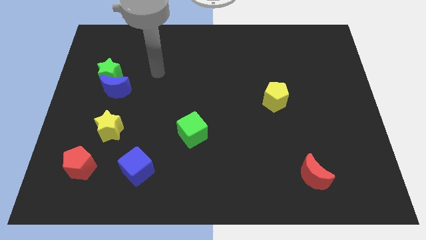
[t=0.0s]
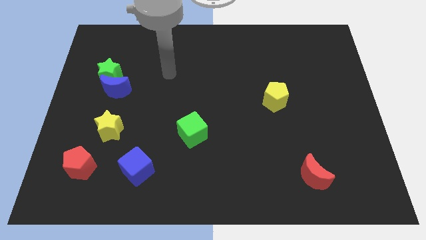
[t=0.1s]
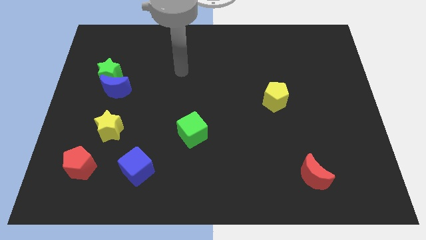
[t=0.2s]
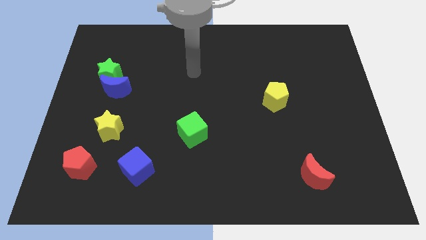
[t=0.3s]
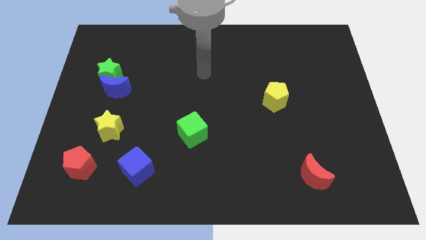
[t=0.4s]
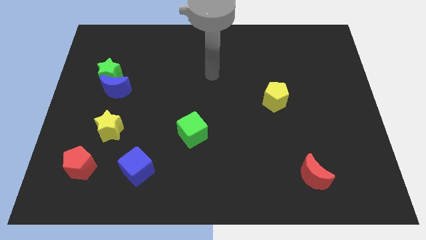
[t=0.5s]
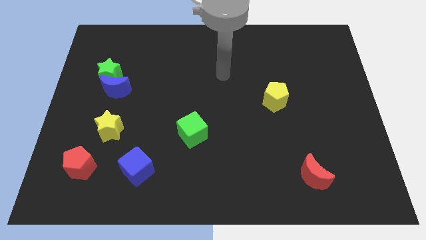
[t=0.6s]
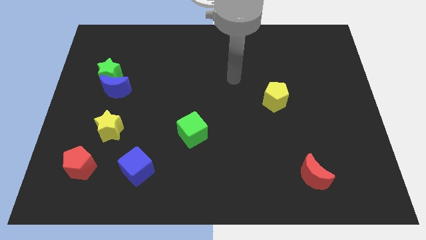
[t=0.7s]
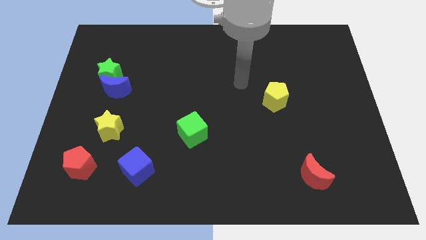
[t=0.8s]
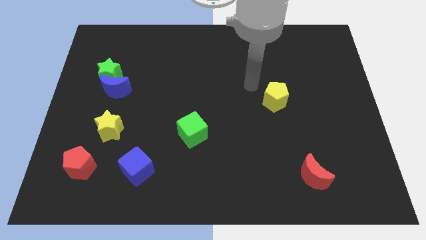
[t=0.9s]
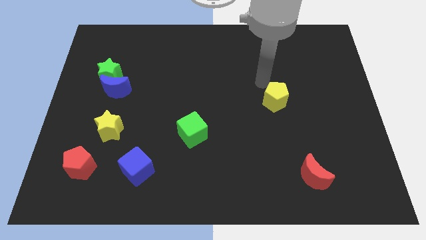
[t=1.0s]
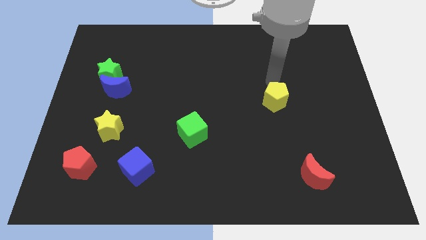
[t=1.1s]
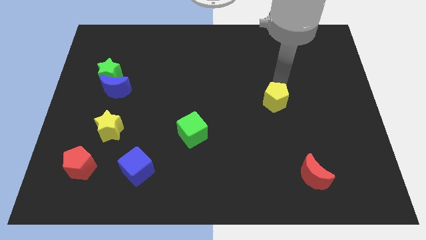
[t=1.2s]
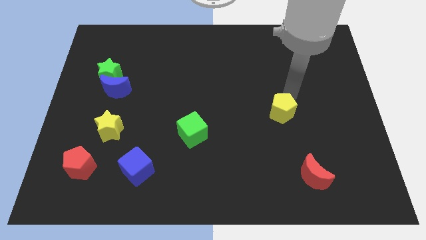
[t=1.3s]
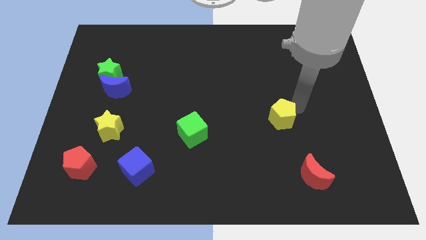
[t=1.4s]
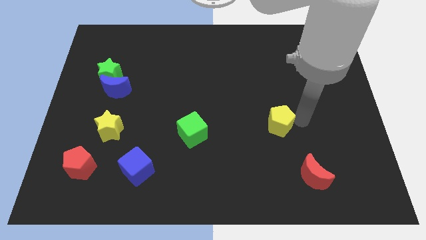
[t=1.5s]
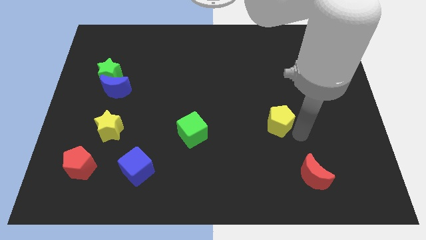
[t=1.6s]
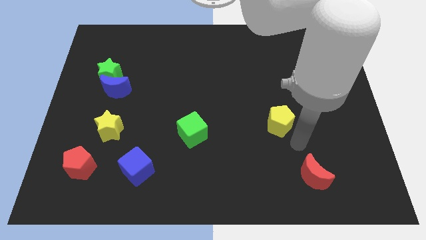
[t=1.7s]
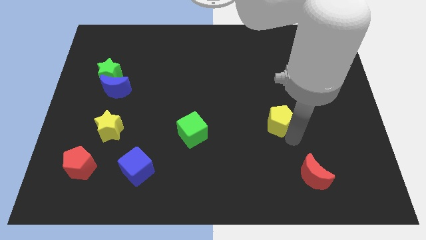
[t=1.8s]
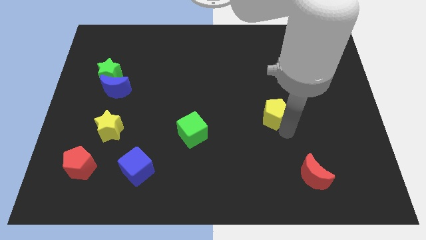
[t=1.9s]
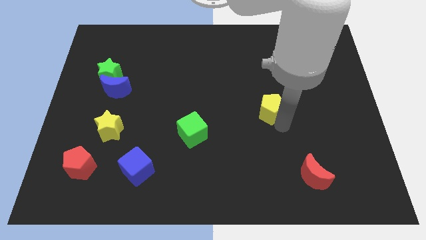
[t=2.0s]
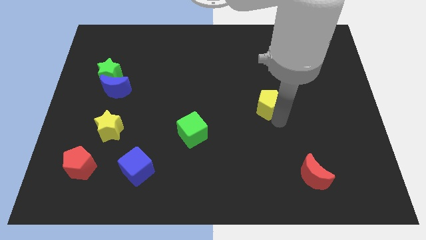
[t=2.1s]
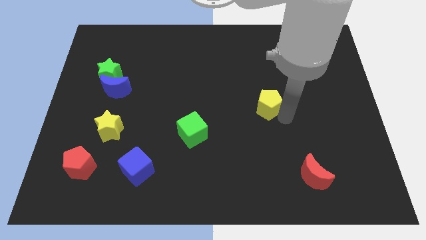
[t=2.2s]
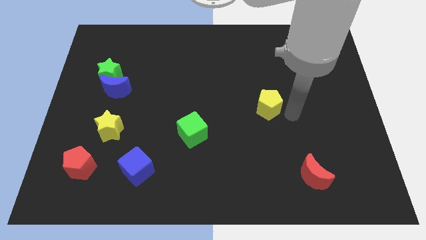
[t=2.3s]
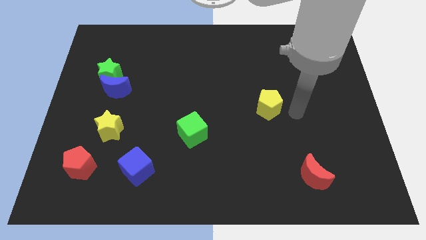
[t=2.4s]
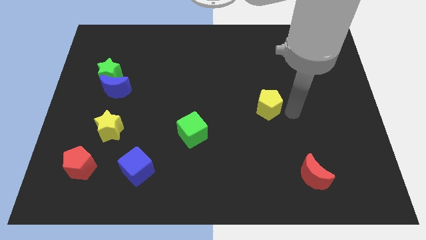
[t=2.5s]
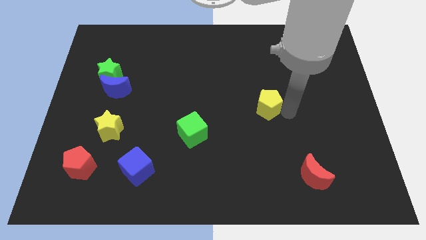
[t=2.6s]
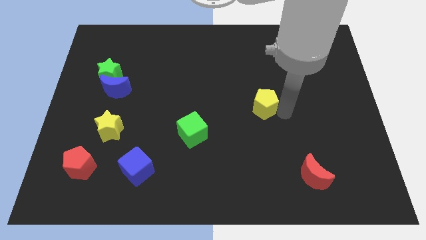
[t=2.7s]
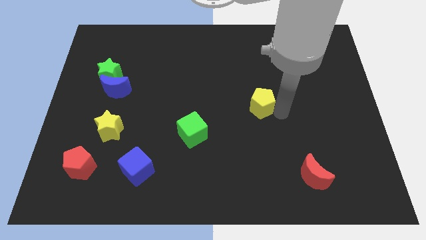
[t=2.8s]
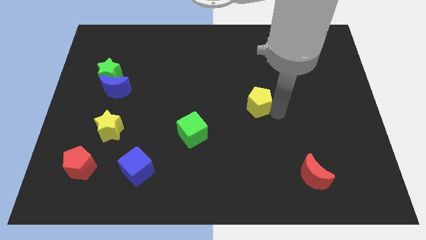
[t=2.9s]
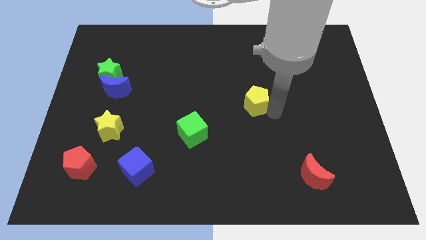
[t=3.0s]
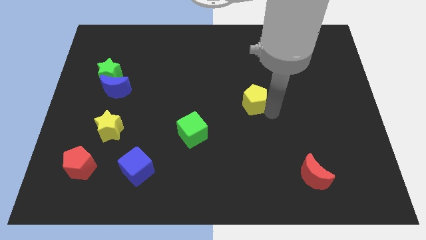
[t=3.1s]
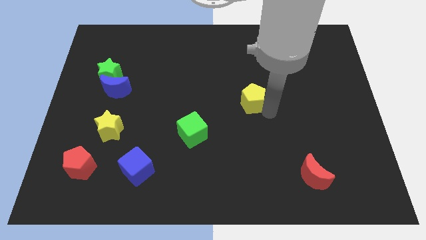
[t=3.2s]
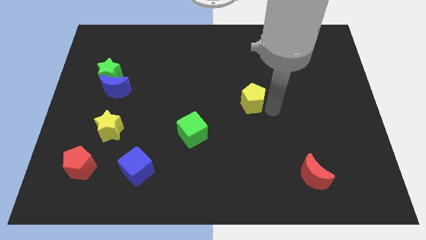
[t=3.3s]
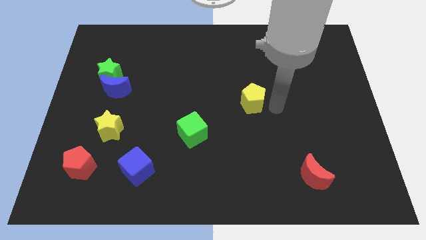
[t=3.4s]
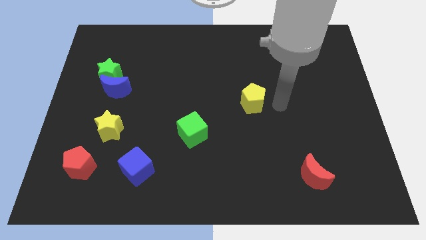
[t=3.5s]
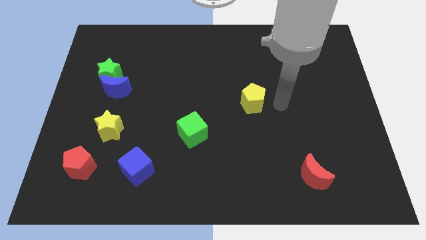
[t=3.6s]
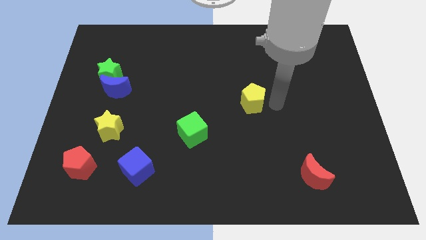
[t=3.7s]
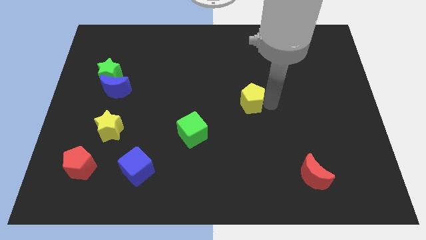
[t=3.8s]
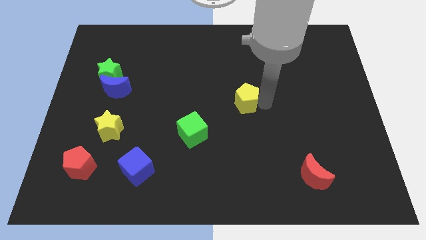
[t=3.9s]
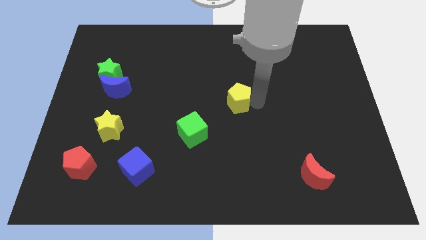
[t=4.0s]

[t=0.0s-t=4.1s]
push the yellow pentagon a little left

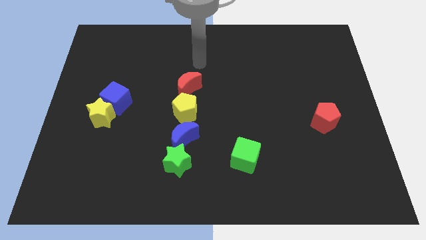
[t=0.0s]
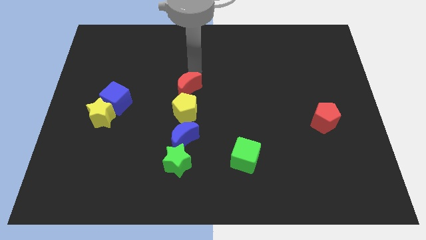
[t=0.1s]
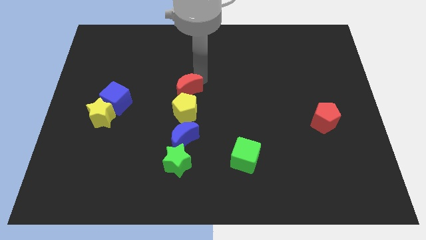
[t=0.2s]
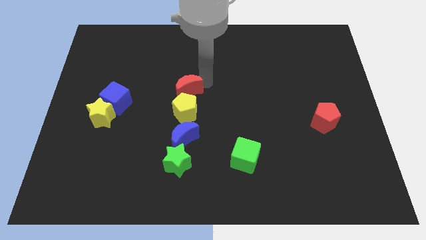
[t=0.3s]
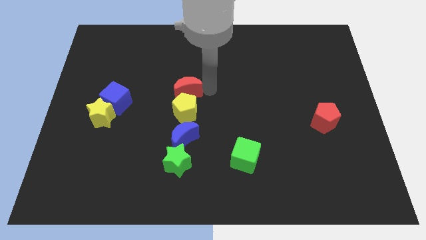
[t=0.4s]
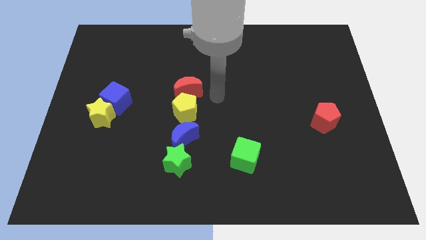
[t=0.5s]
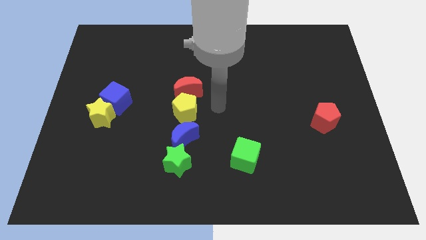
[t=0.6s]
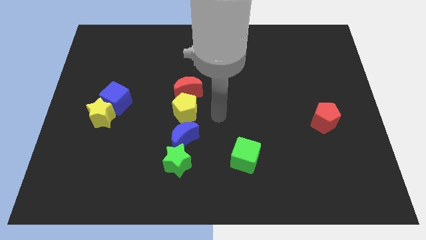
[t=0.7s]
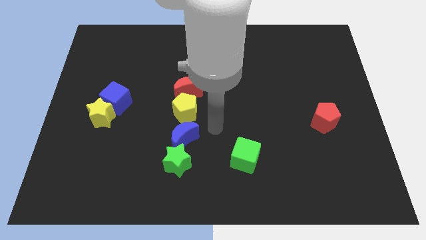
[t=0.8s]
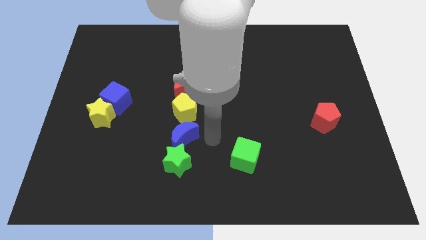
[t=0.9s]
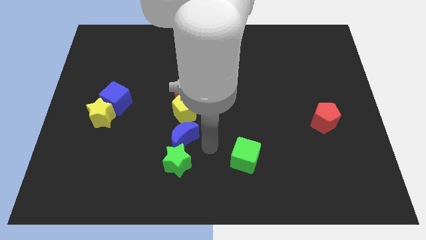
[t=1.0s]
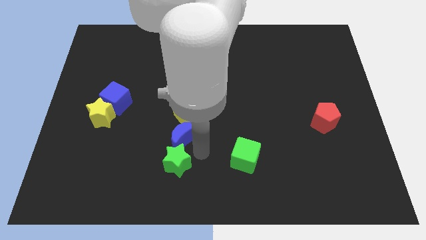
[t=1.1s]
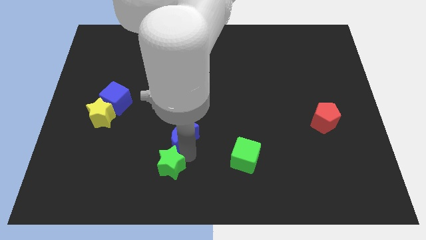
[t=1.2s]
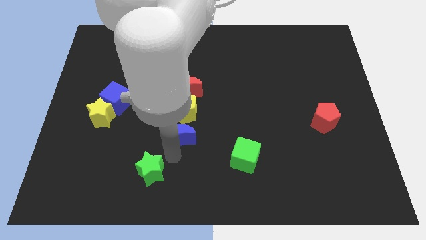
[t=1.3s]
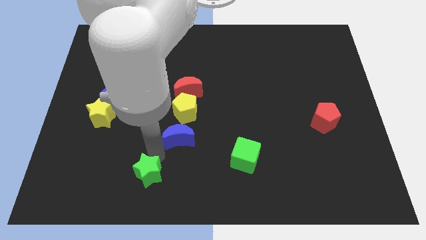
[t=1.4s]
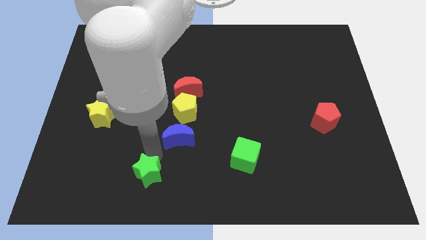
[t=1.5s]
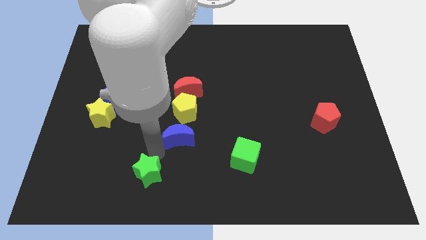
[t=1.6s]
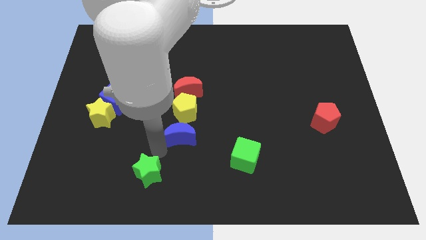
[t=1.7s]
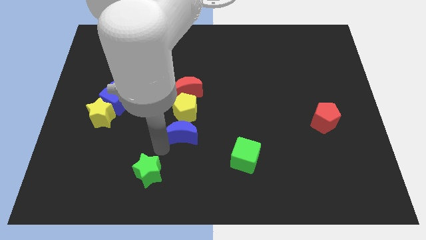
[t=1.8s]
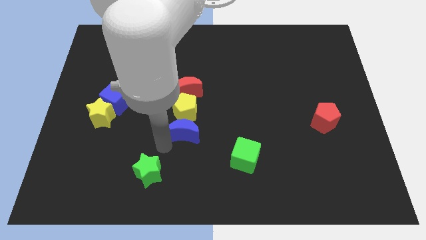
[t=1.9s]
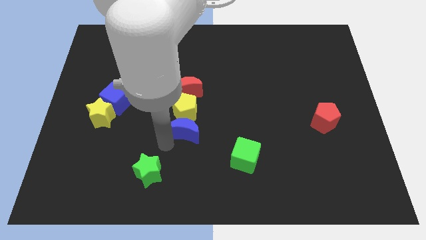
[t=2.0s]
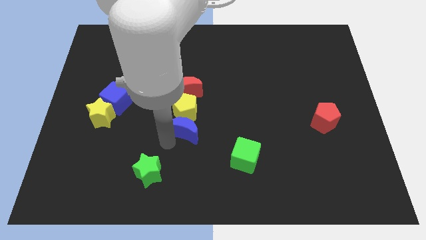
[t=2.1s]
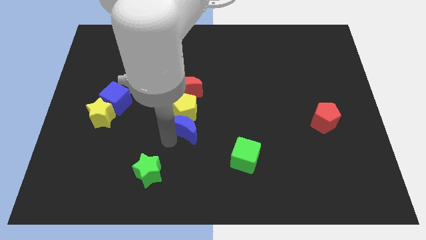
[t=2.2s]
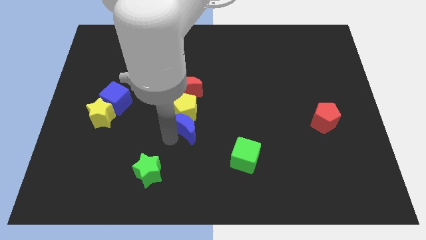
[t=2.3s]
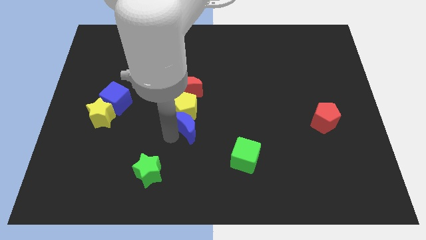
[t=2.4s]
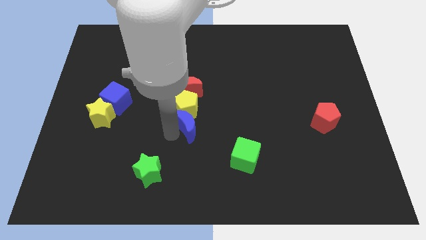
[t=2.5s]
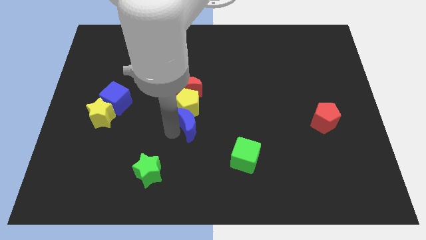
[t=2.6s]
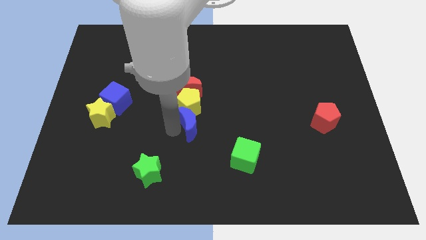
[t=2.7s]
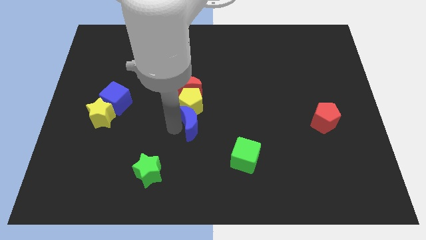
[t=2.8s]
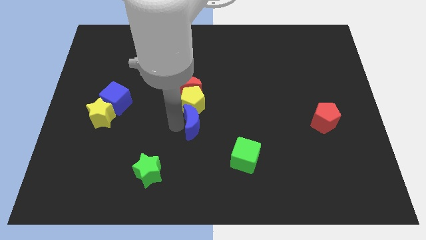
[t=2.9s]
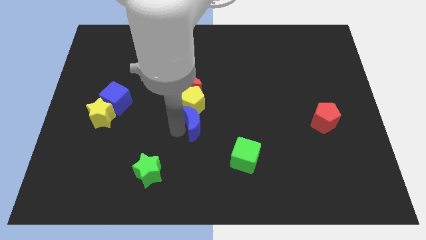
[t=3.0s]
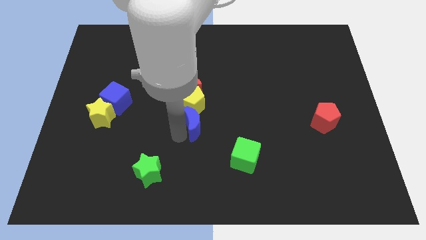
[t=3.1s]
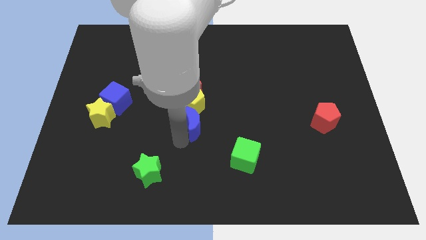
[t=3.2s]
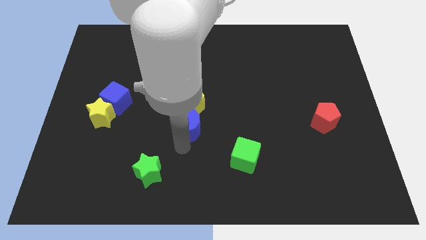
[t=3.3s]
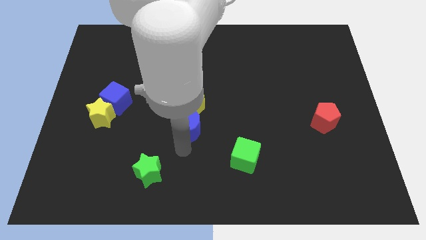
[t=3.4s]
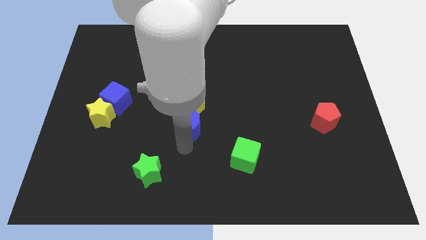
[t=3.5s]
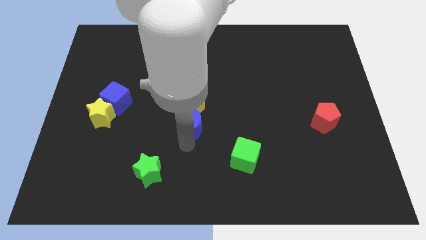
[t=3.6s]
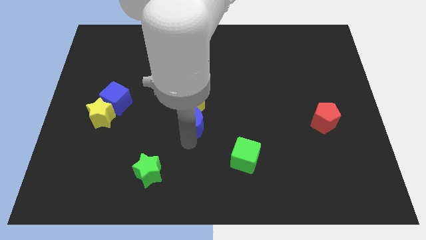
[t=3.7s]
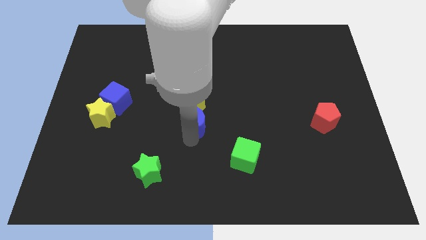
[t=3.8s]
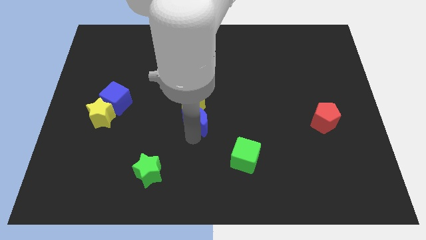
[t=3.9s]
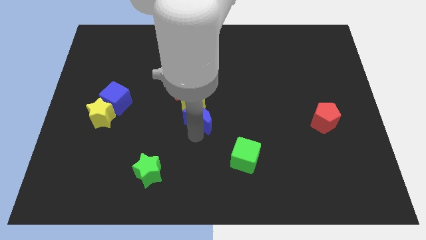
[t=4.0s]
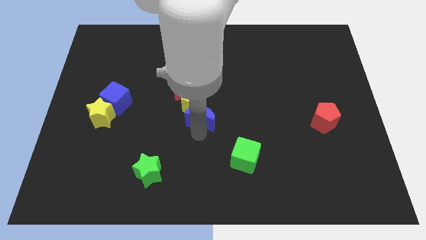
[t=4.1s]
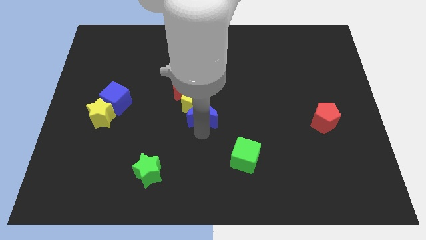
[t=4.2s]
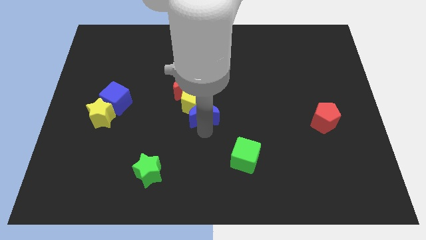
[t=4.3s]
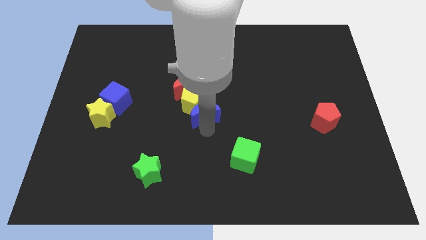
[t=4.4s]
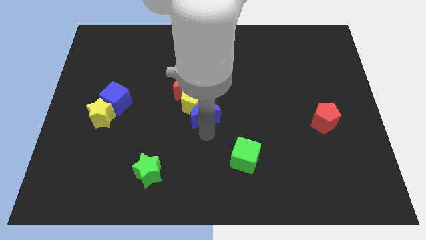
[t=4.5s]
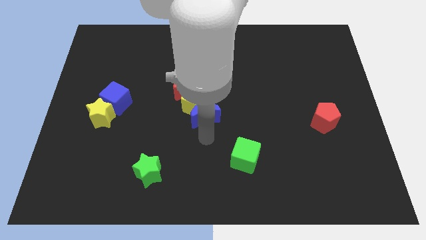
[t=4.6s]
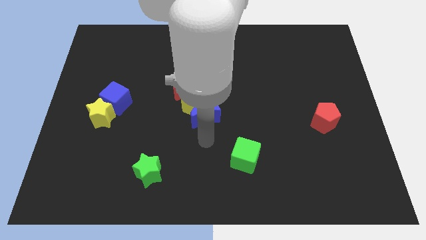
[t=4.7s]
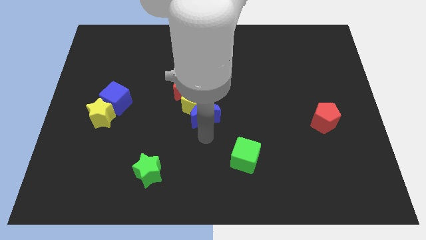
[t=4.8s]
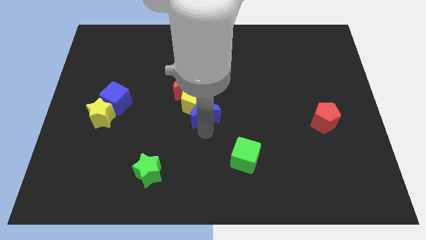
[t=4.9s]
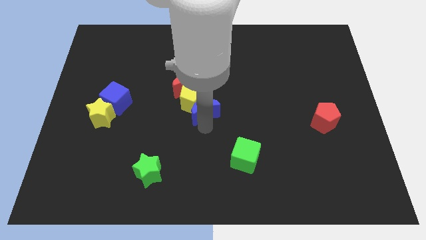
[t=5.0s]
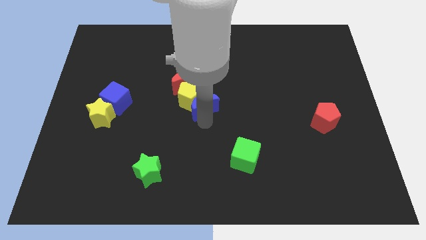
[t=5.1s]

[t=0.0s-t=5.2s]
slide the blue moon somewhat up
